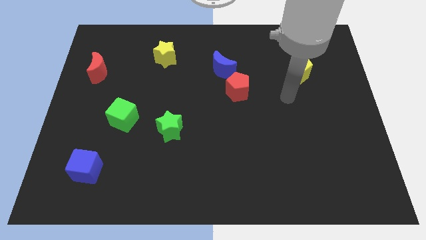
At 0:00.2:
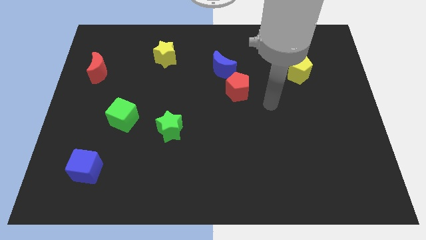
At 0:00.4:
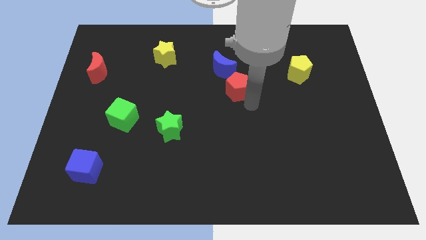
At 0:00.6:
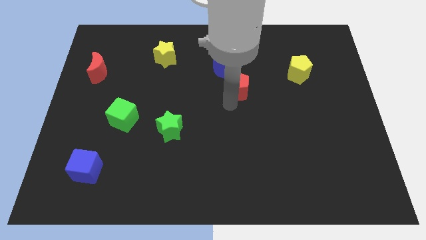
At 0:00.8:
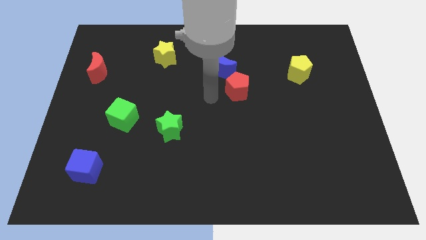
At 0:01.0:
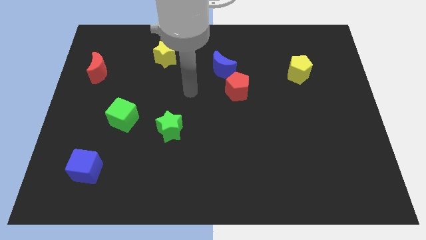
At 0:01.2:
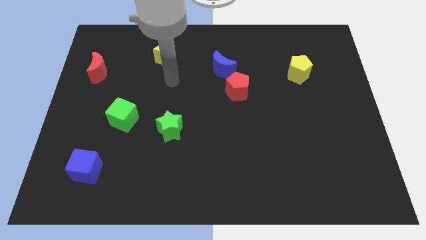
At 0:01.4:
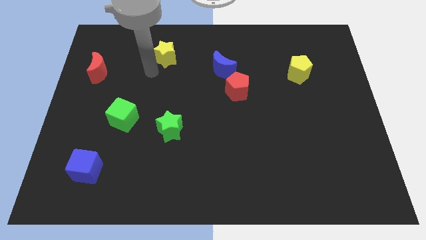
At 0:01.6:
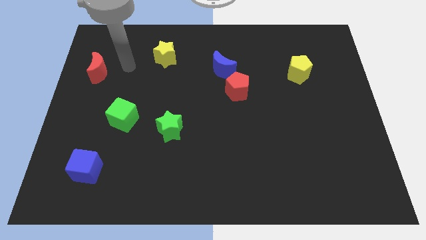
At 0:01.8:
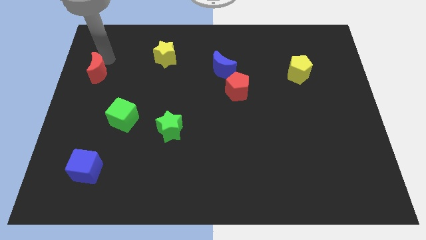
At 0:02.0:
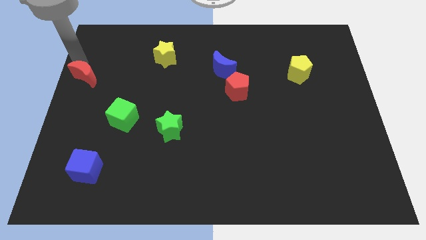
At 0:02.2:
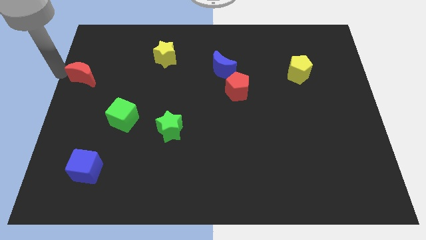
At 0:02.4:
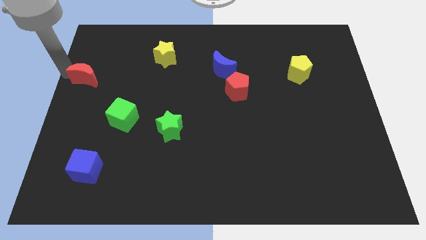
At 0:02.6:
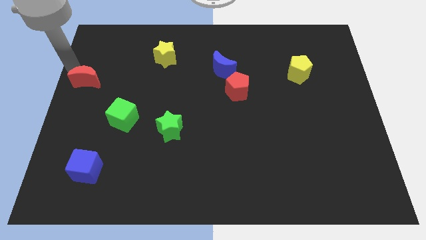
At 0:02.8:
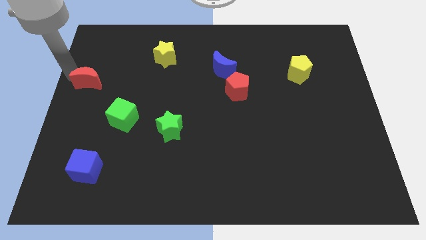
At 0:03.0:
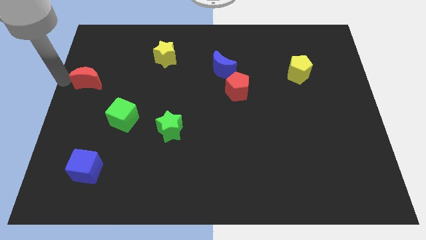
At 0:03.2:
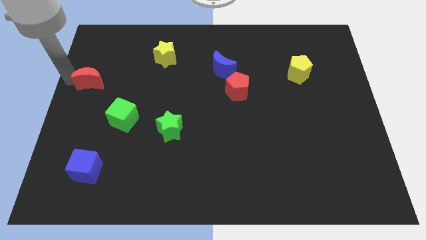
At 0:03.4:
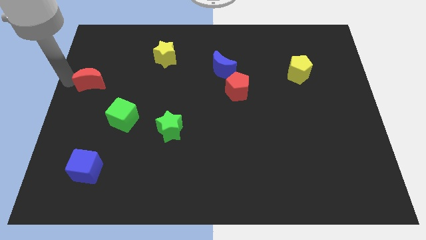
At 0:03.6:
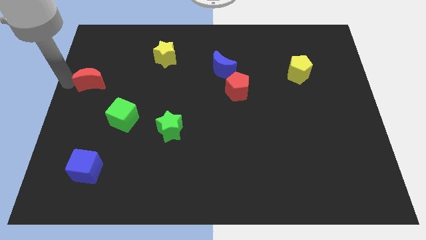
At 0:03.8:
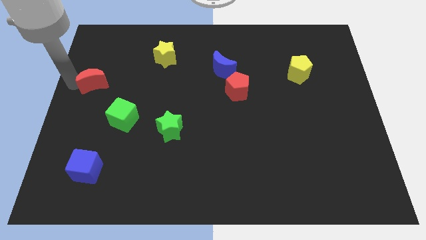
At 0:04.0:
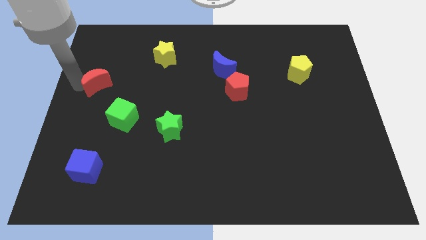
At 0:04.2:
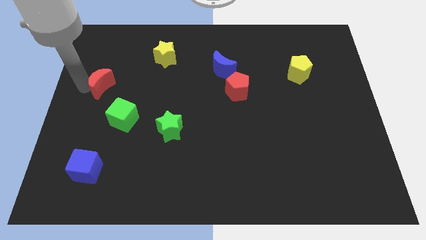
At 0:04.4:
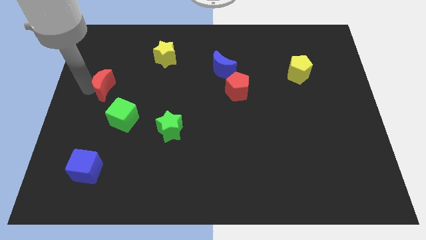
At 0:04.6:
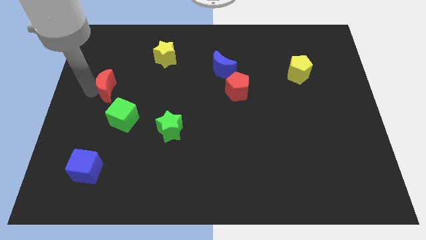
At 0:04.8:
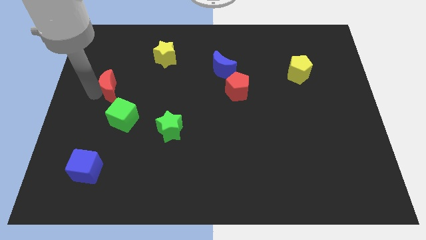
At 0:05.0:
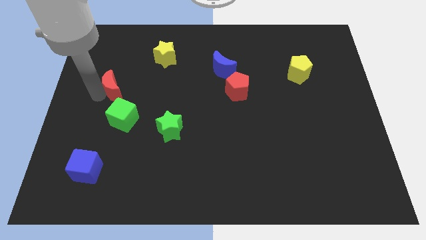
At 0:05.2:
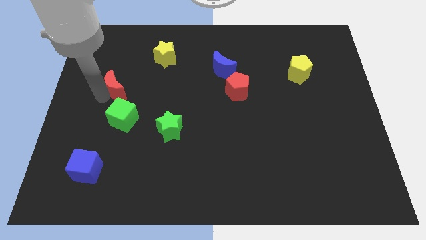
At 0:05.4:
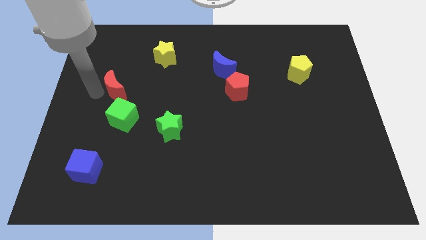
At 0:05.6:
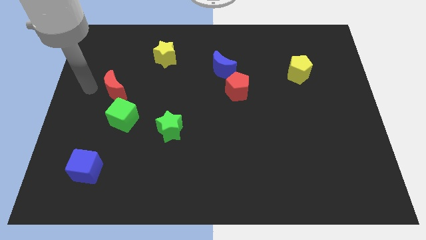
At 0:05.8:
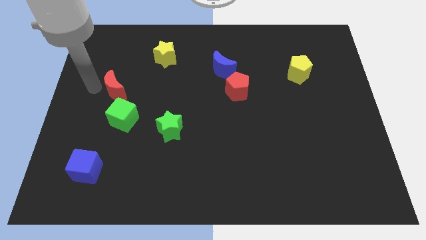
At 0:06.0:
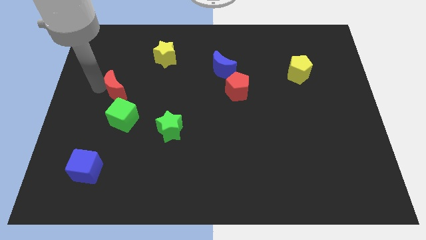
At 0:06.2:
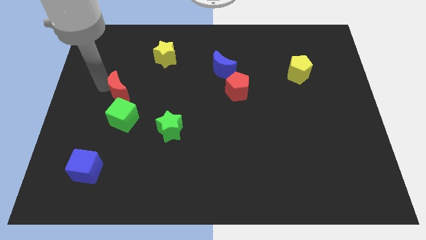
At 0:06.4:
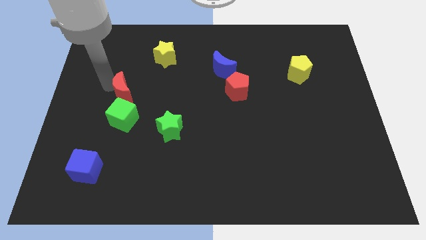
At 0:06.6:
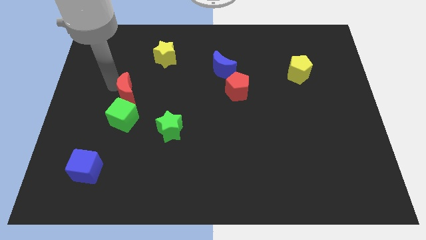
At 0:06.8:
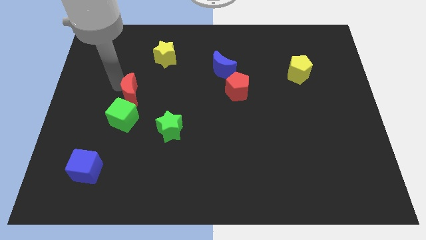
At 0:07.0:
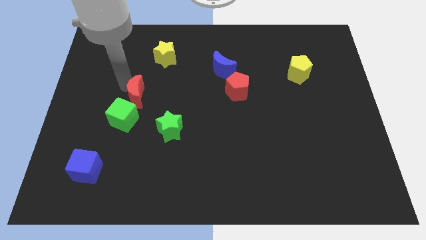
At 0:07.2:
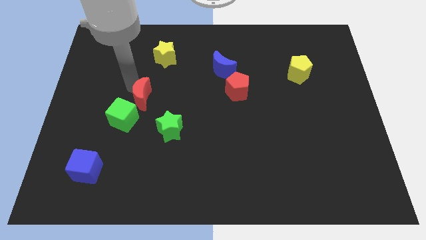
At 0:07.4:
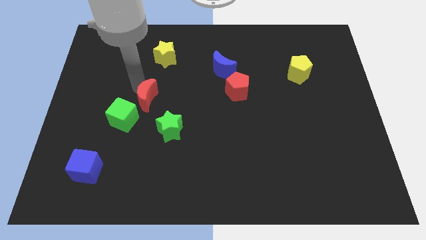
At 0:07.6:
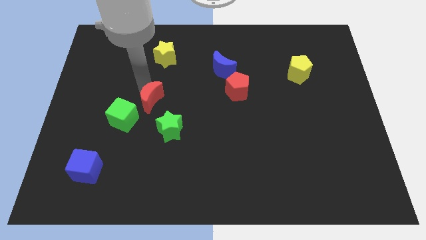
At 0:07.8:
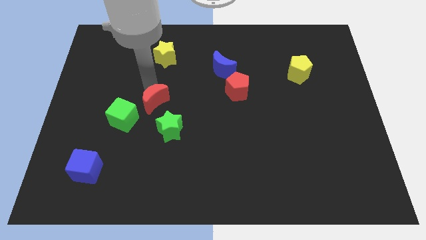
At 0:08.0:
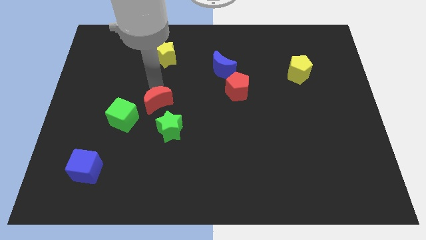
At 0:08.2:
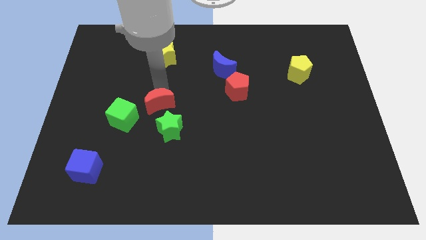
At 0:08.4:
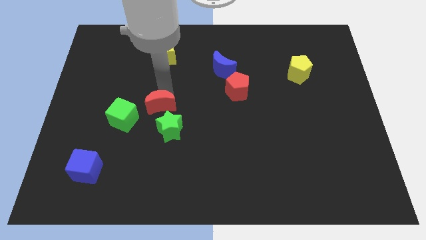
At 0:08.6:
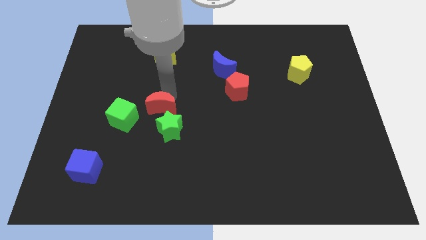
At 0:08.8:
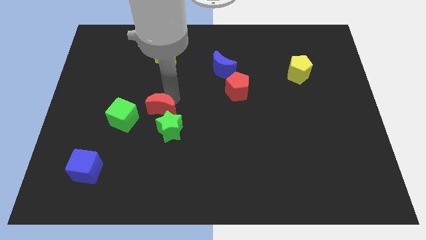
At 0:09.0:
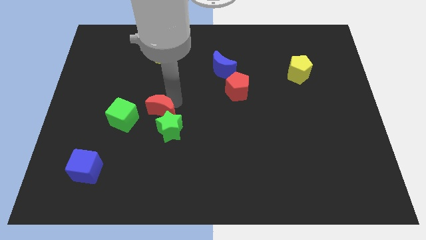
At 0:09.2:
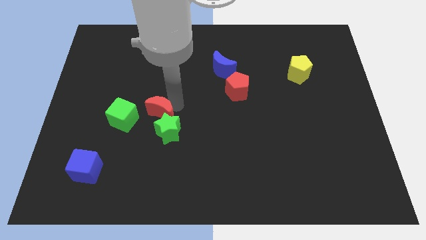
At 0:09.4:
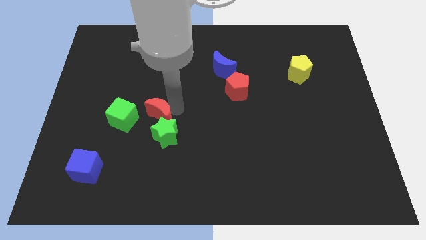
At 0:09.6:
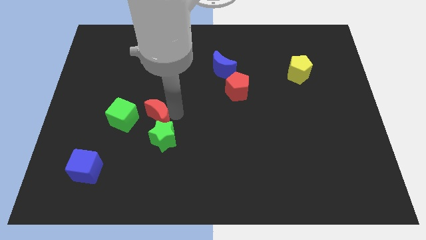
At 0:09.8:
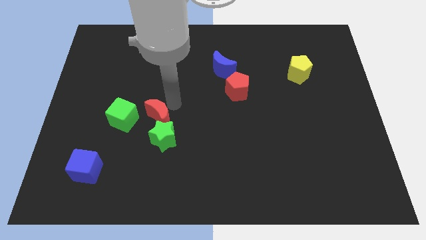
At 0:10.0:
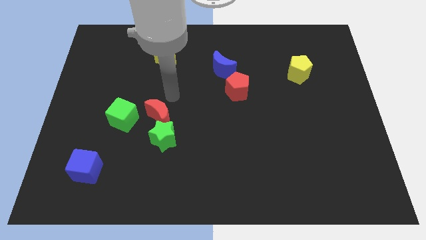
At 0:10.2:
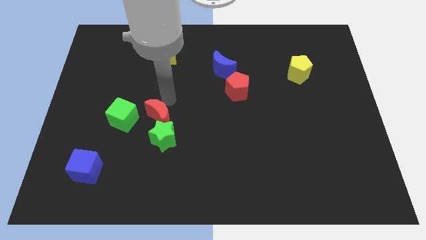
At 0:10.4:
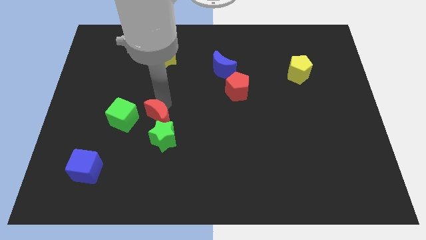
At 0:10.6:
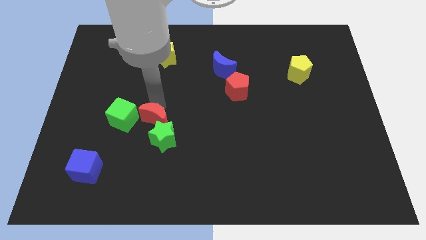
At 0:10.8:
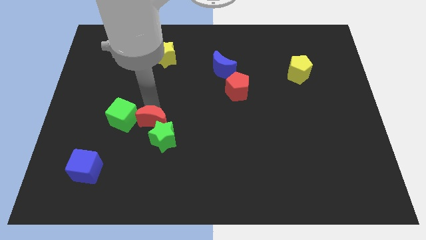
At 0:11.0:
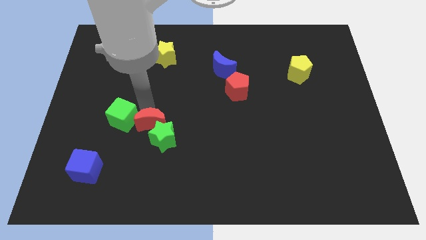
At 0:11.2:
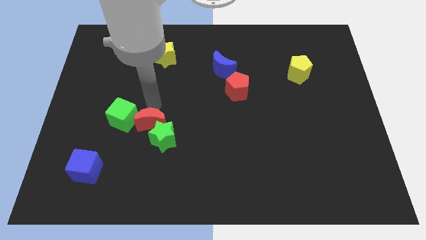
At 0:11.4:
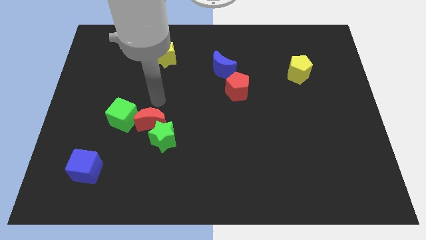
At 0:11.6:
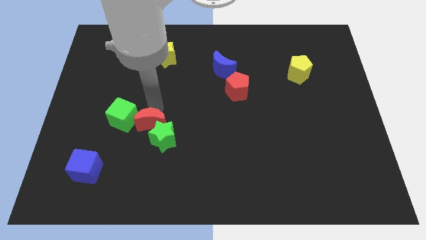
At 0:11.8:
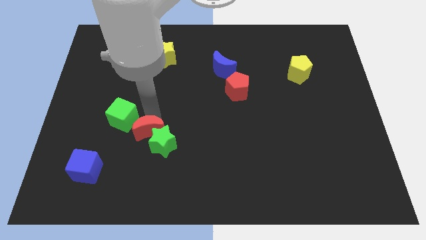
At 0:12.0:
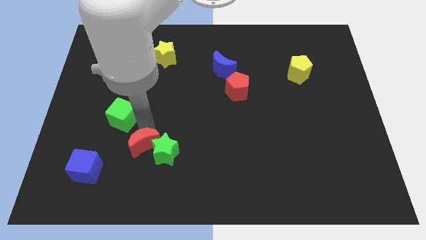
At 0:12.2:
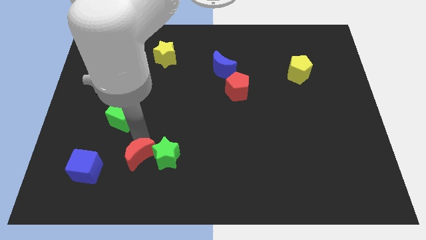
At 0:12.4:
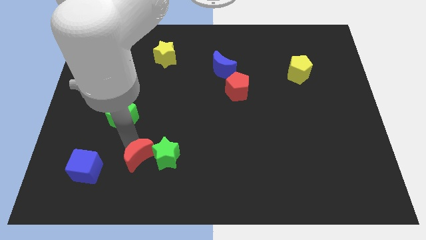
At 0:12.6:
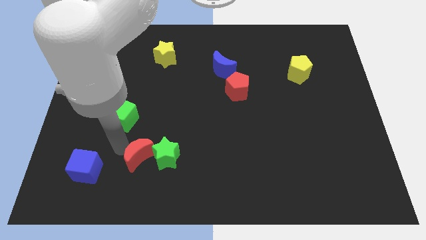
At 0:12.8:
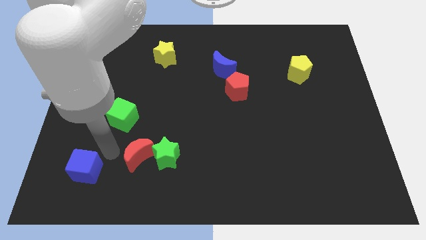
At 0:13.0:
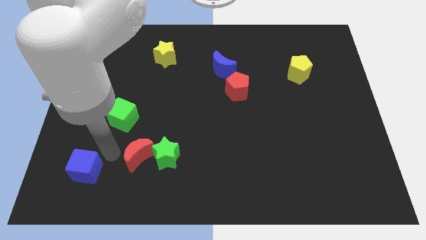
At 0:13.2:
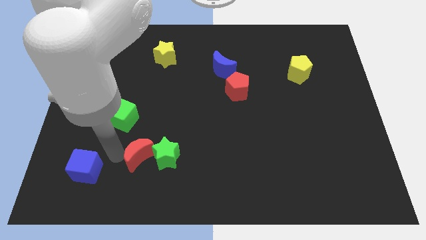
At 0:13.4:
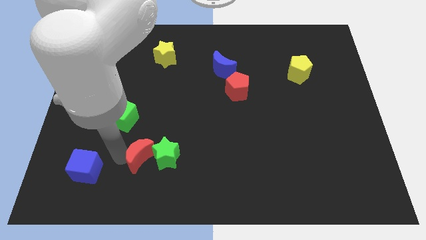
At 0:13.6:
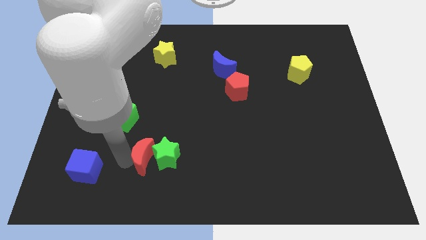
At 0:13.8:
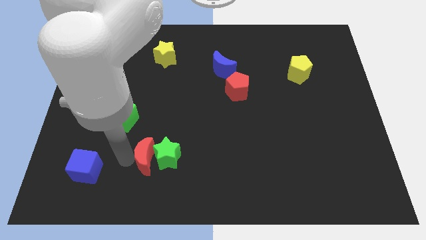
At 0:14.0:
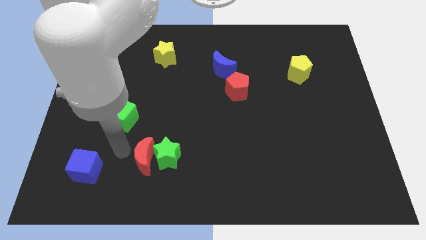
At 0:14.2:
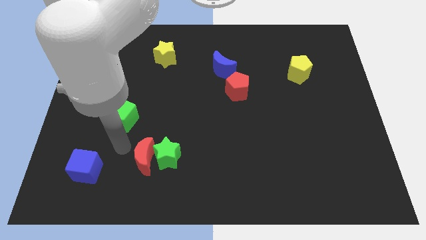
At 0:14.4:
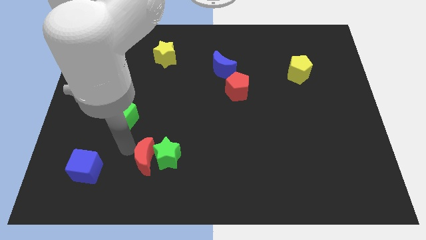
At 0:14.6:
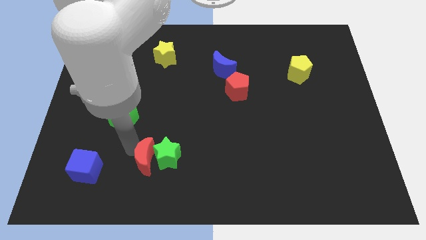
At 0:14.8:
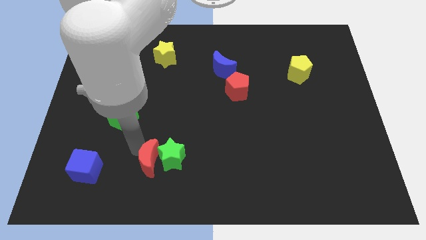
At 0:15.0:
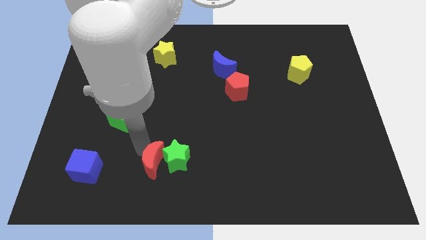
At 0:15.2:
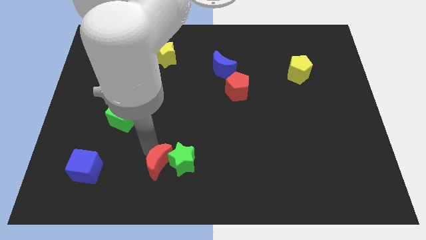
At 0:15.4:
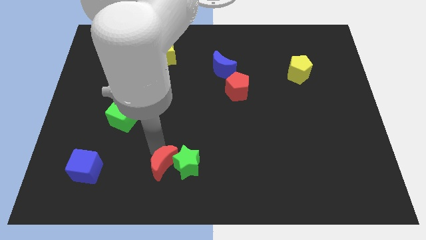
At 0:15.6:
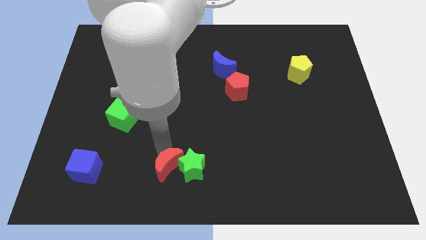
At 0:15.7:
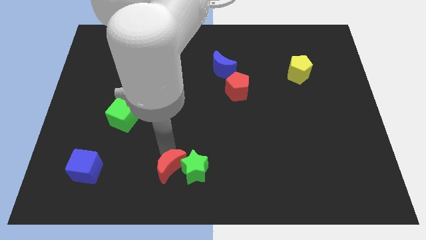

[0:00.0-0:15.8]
put the red moon to the bottom
